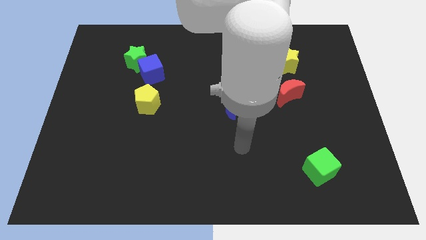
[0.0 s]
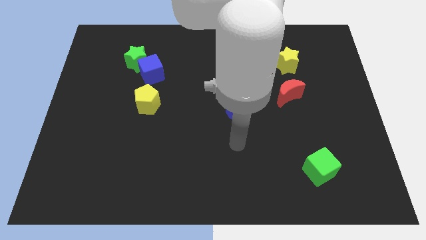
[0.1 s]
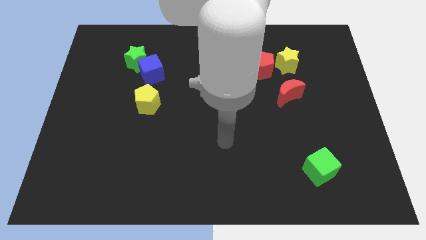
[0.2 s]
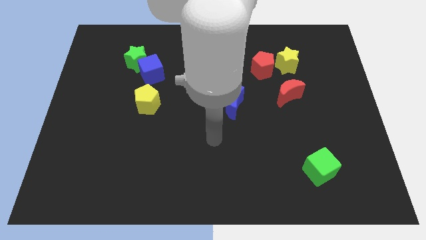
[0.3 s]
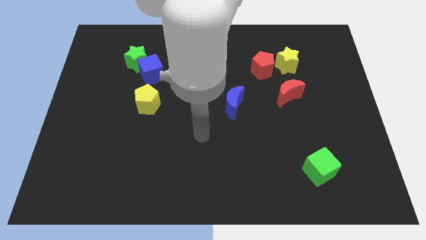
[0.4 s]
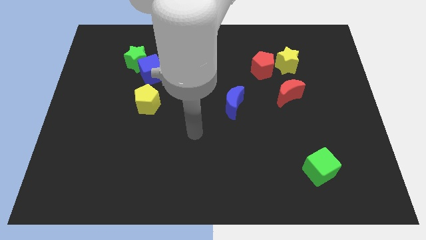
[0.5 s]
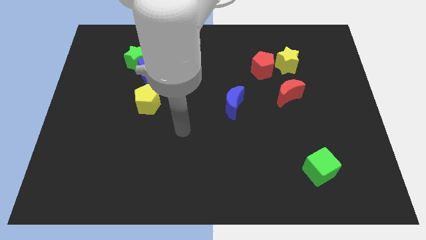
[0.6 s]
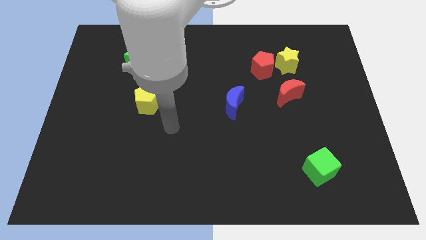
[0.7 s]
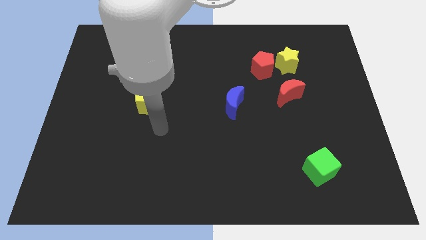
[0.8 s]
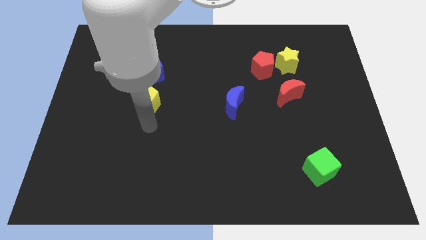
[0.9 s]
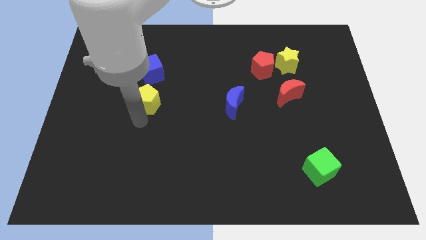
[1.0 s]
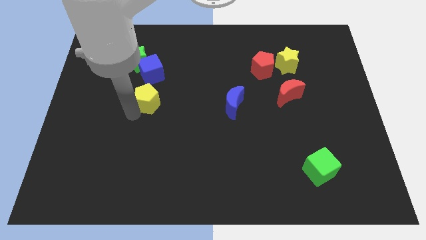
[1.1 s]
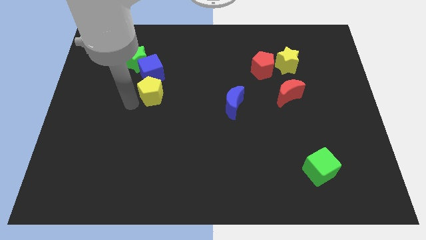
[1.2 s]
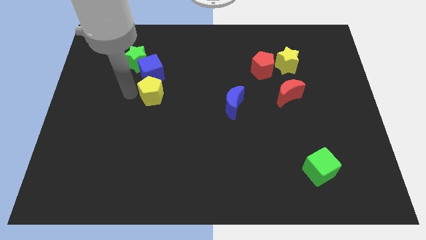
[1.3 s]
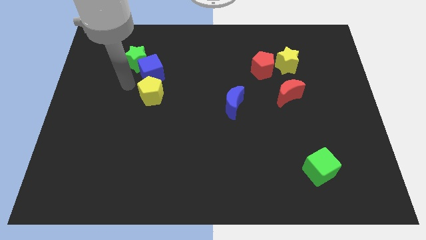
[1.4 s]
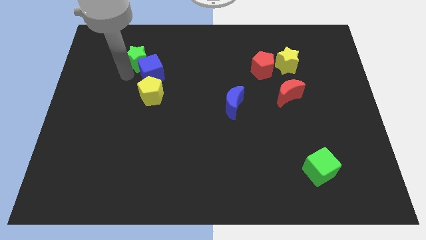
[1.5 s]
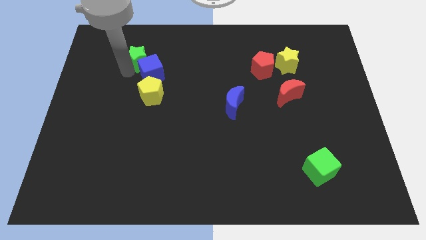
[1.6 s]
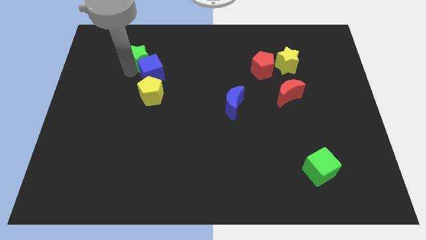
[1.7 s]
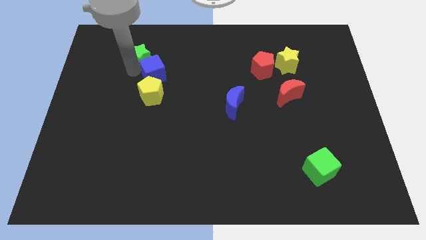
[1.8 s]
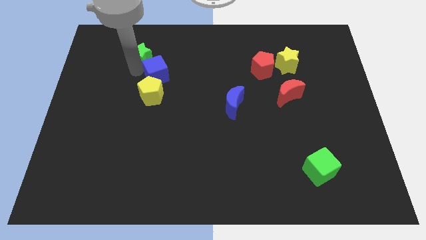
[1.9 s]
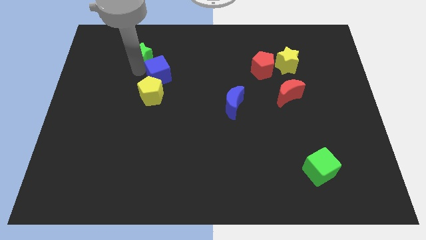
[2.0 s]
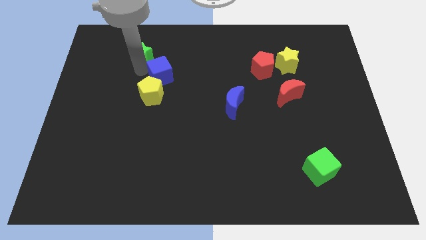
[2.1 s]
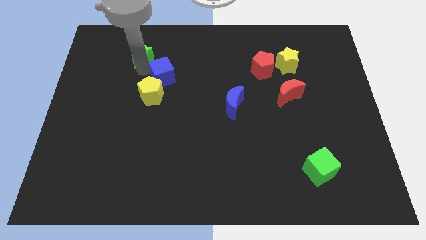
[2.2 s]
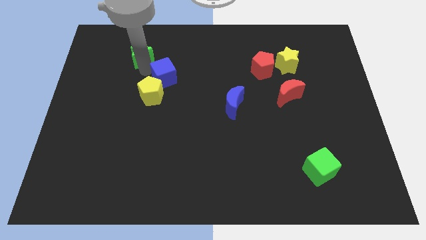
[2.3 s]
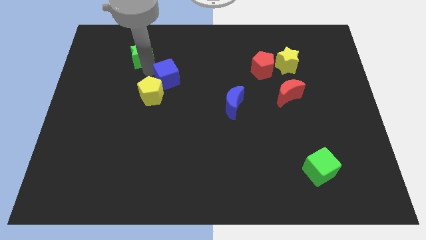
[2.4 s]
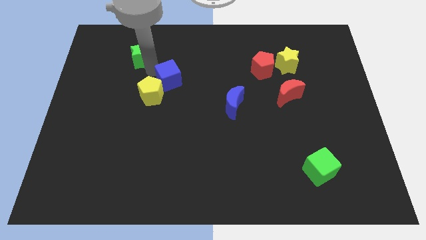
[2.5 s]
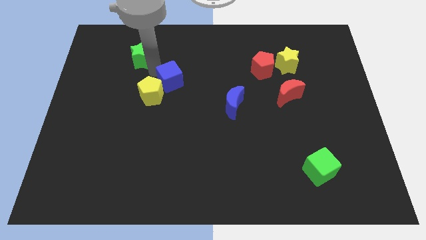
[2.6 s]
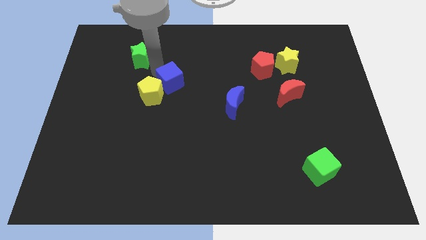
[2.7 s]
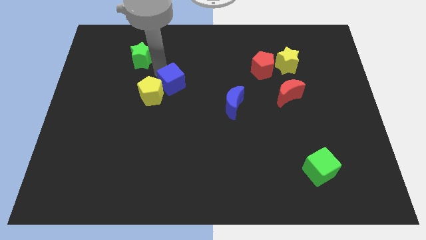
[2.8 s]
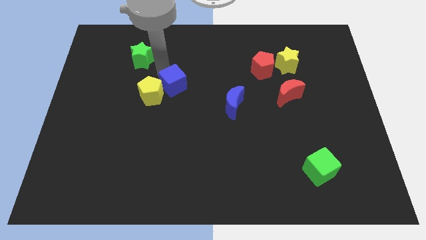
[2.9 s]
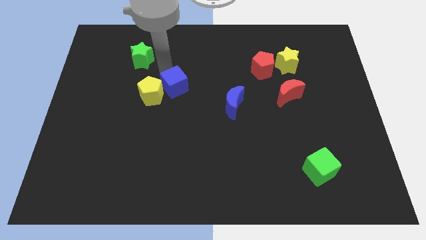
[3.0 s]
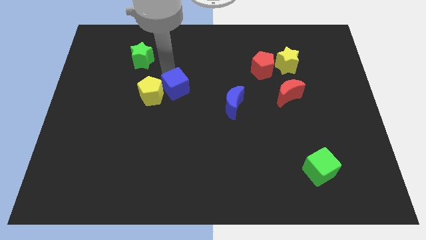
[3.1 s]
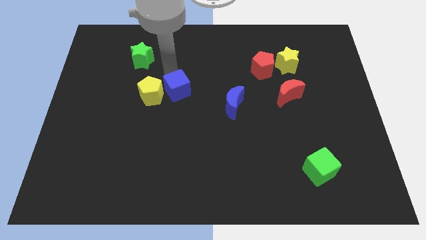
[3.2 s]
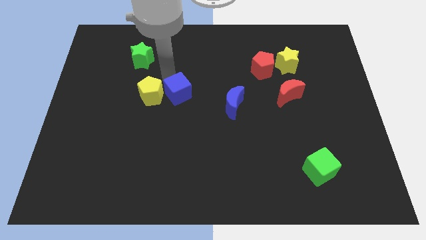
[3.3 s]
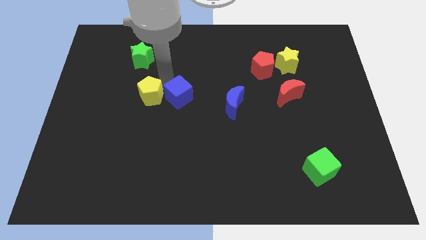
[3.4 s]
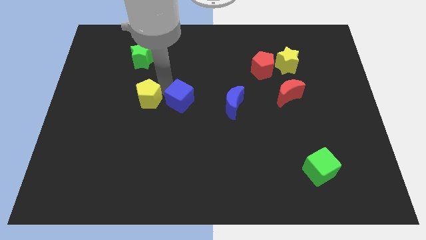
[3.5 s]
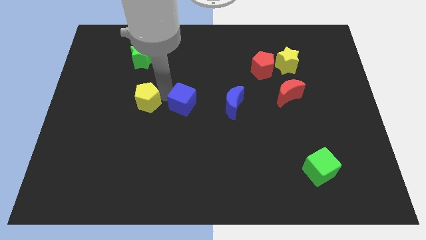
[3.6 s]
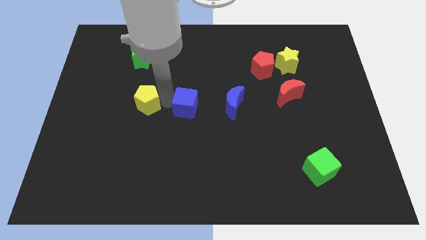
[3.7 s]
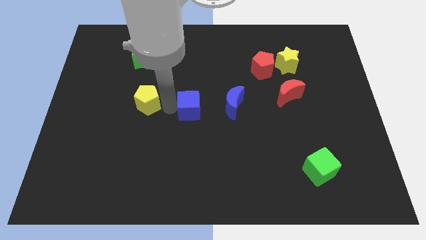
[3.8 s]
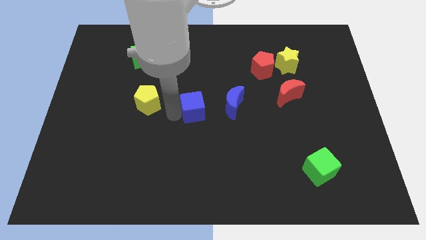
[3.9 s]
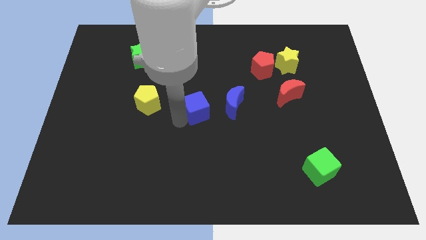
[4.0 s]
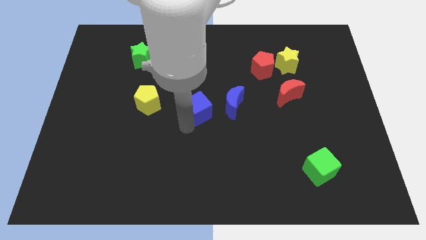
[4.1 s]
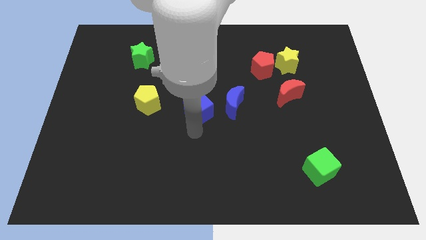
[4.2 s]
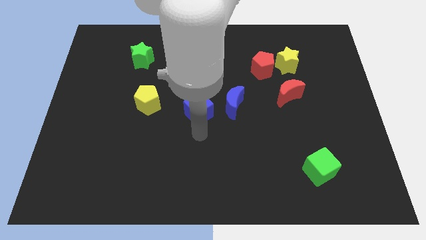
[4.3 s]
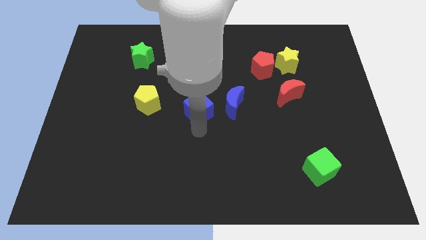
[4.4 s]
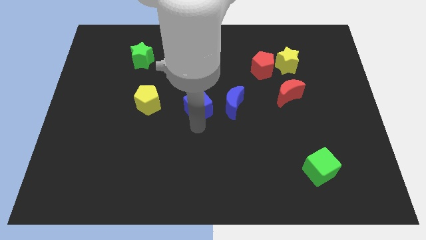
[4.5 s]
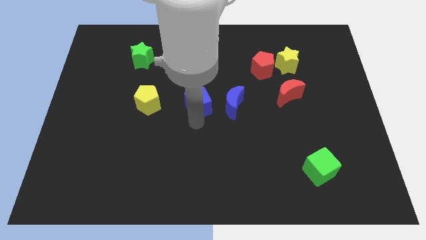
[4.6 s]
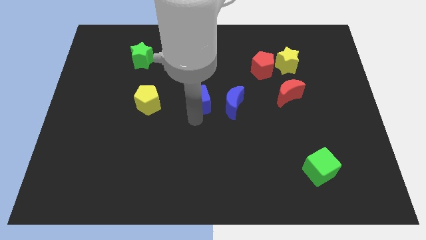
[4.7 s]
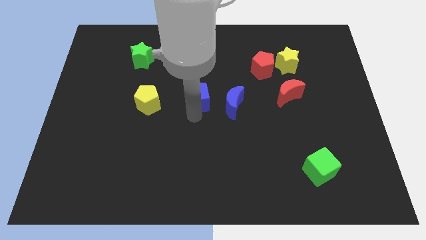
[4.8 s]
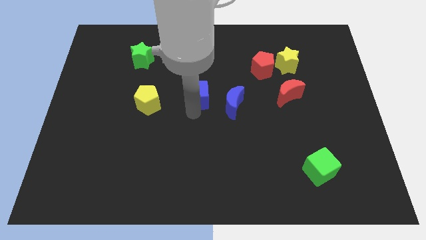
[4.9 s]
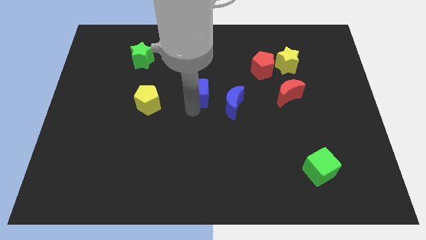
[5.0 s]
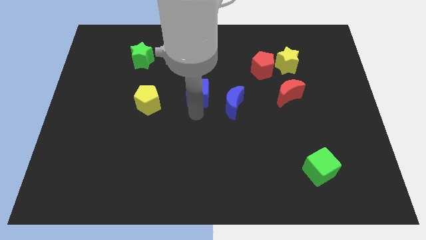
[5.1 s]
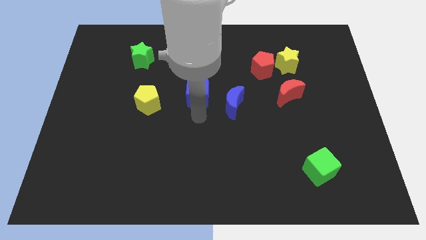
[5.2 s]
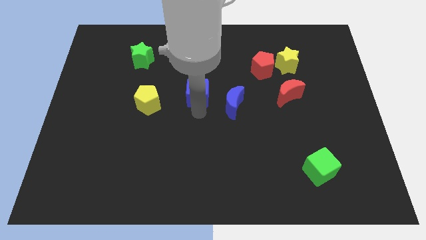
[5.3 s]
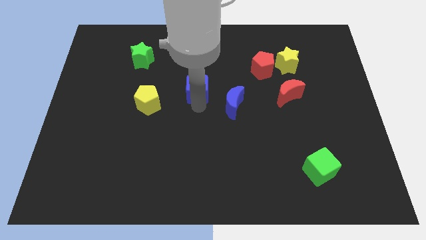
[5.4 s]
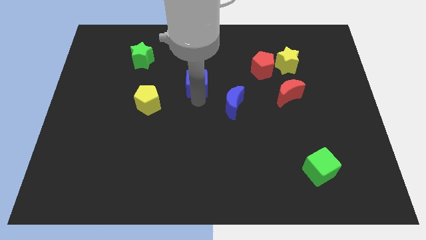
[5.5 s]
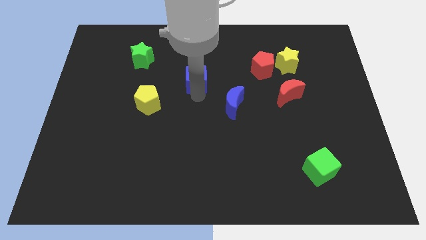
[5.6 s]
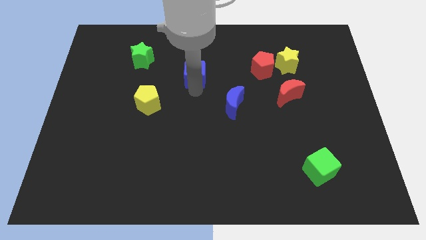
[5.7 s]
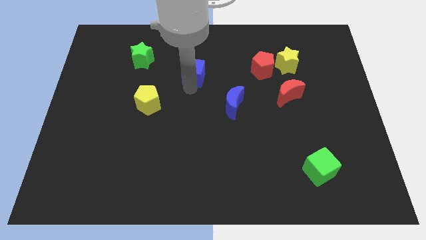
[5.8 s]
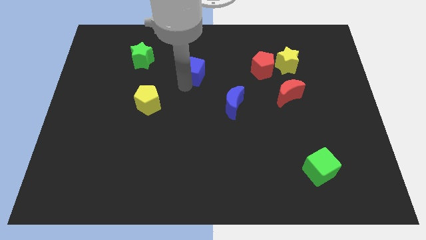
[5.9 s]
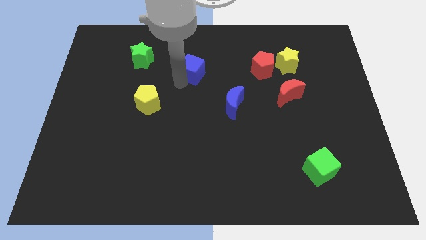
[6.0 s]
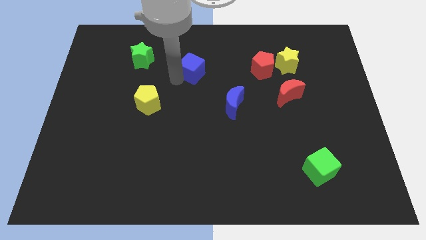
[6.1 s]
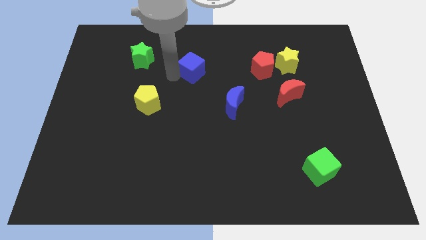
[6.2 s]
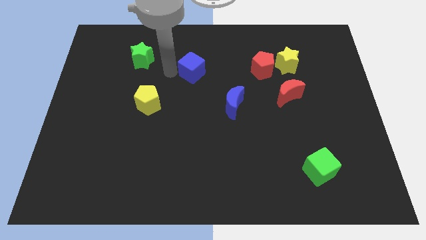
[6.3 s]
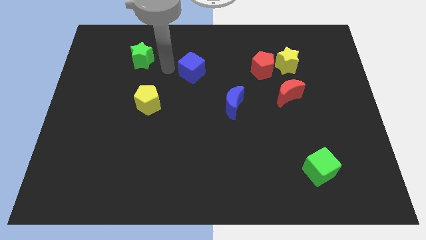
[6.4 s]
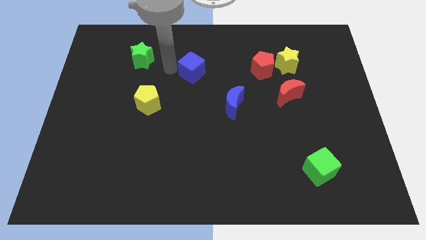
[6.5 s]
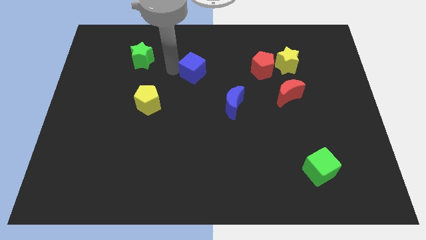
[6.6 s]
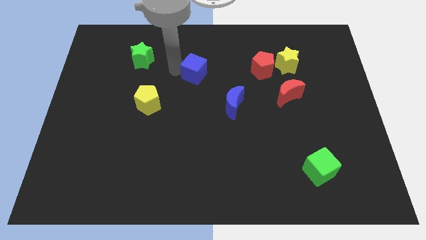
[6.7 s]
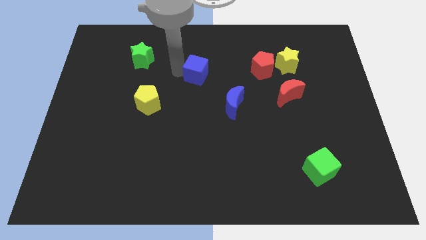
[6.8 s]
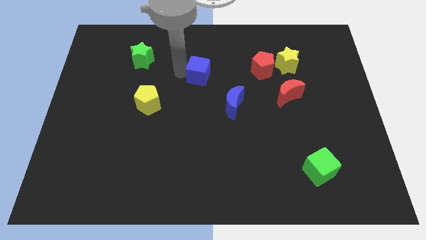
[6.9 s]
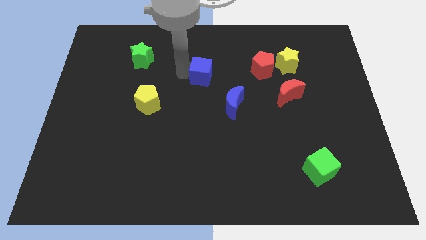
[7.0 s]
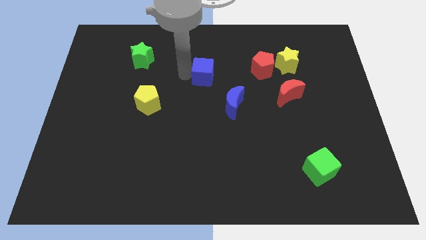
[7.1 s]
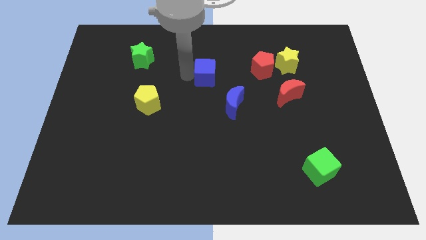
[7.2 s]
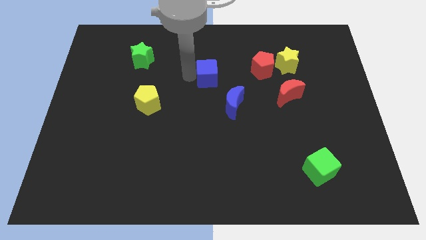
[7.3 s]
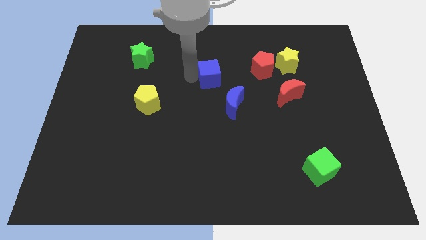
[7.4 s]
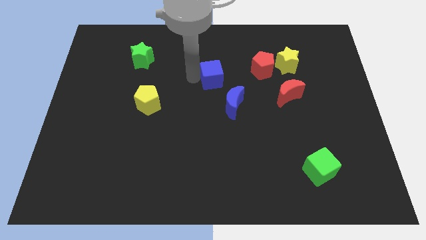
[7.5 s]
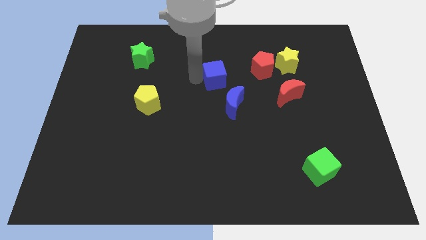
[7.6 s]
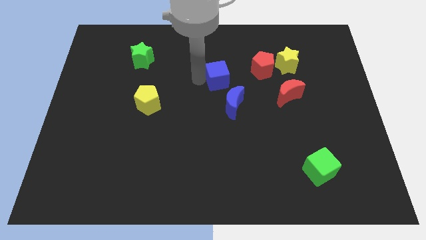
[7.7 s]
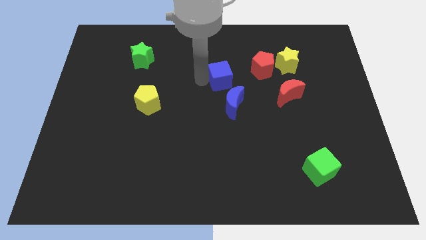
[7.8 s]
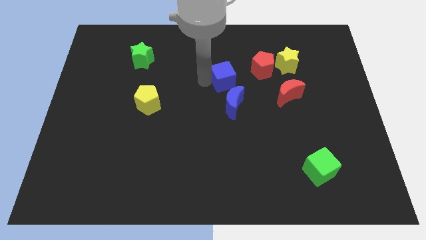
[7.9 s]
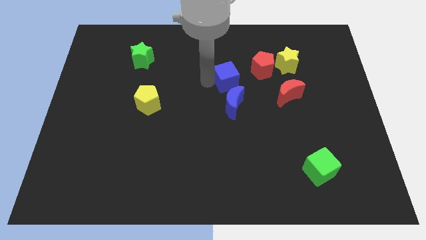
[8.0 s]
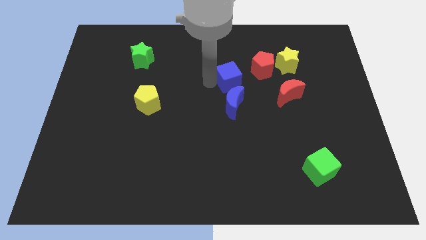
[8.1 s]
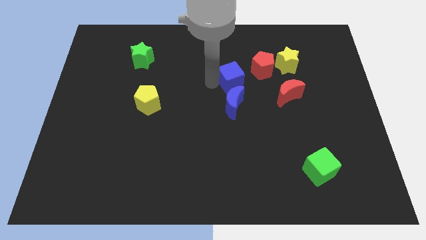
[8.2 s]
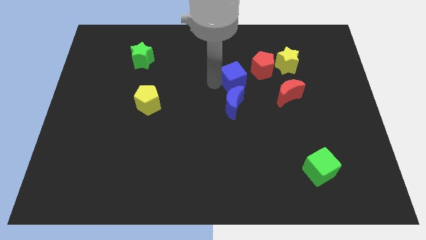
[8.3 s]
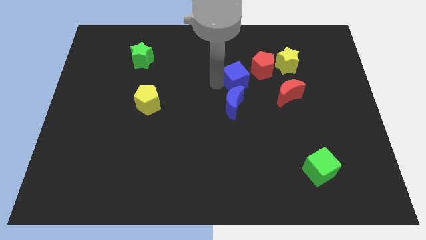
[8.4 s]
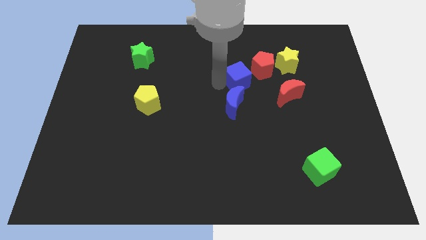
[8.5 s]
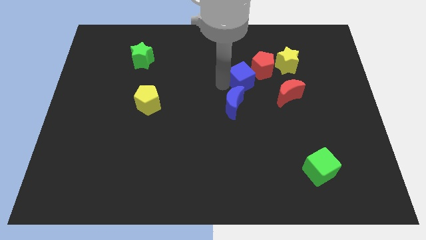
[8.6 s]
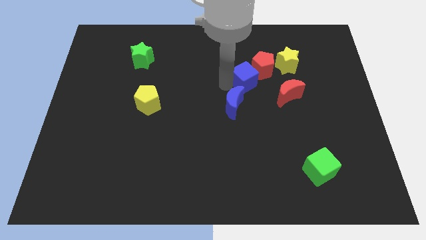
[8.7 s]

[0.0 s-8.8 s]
push the blue cube close to the red pentagon
